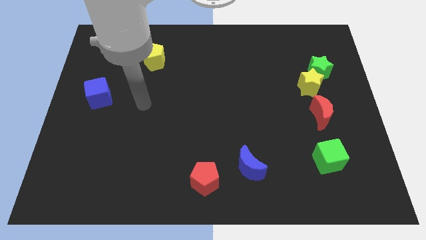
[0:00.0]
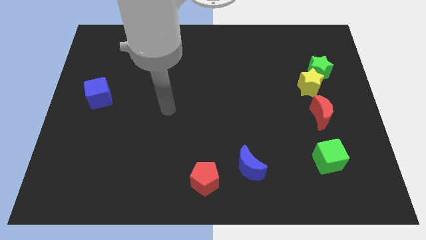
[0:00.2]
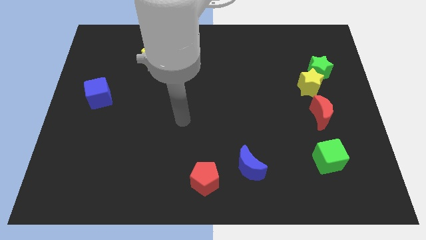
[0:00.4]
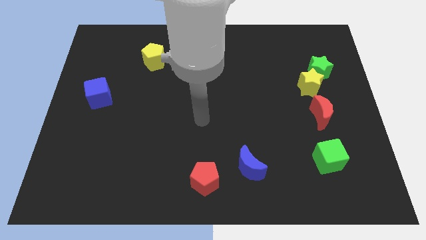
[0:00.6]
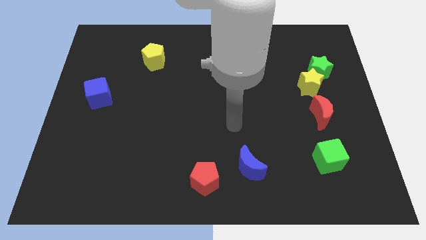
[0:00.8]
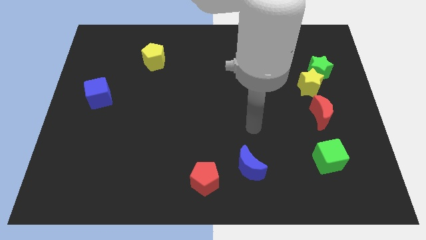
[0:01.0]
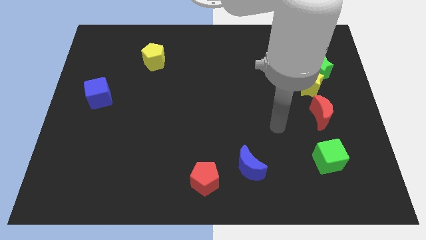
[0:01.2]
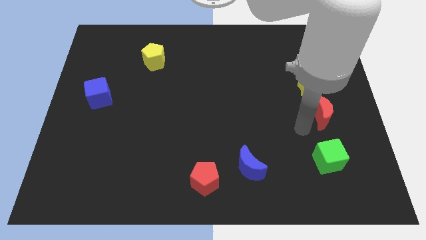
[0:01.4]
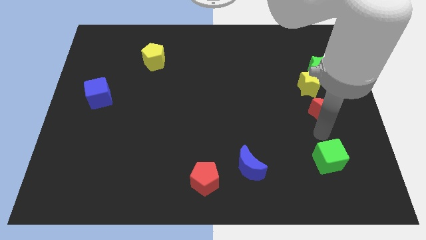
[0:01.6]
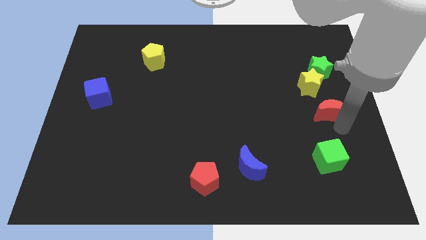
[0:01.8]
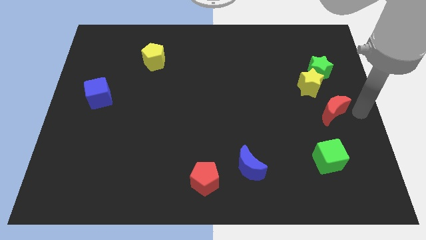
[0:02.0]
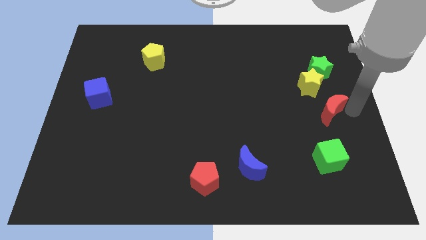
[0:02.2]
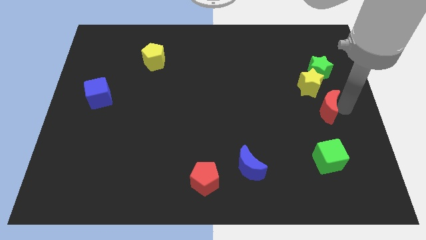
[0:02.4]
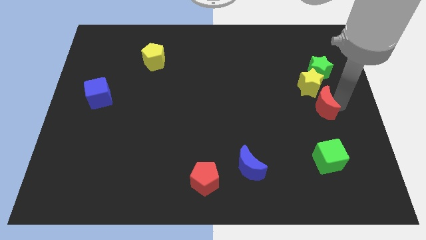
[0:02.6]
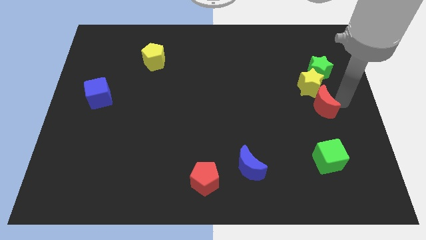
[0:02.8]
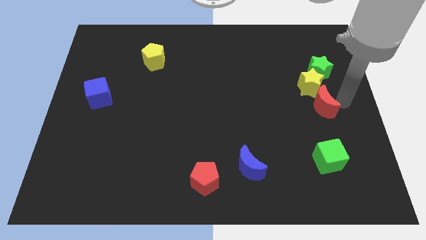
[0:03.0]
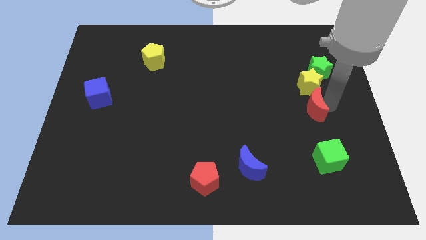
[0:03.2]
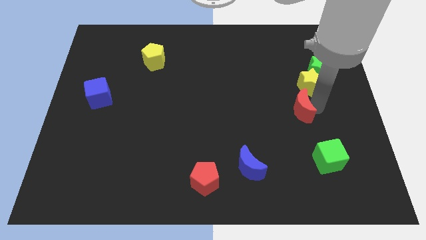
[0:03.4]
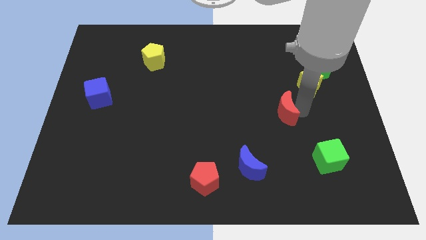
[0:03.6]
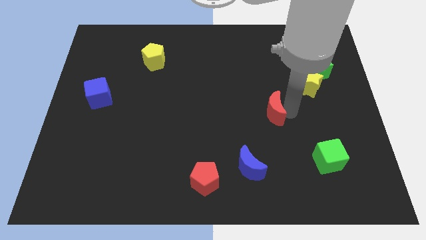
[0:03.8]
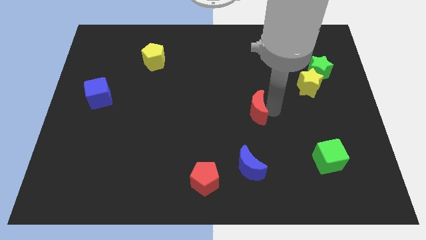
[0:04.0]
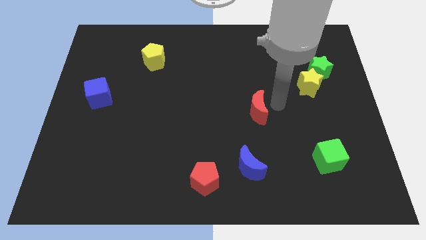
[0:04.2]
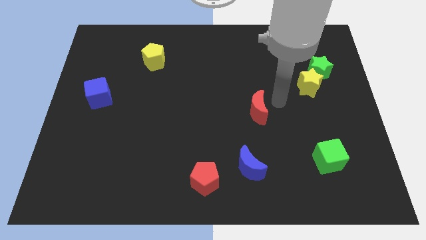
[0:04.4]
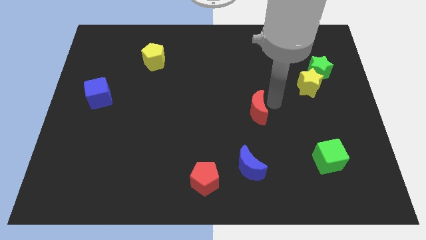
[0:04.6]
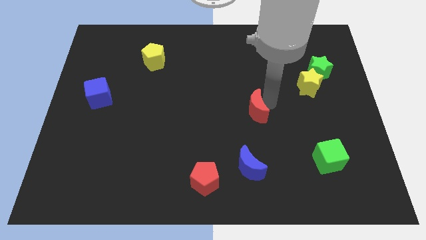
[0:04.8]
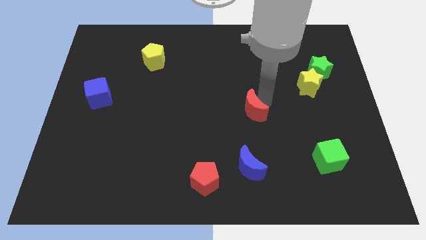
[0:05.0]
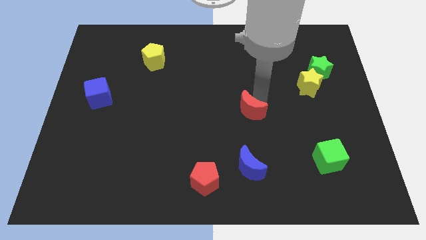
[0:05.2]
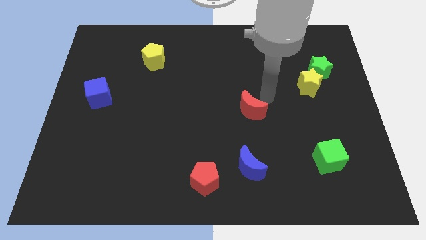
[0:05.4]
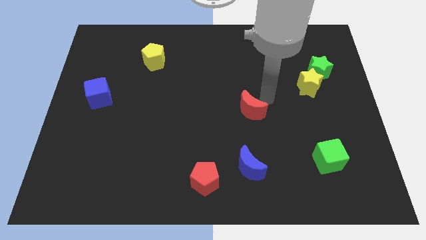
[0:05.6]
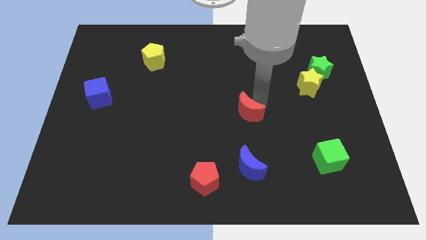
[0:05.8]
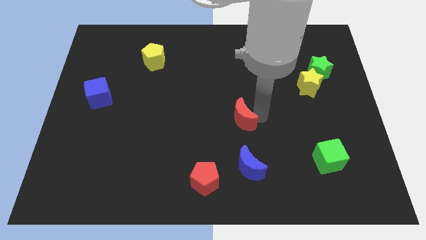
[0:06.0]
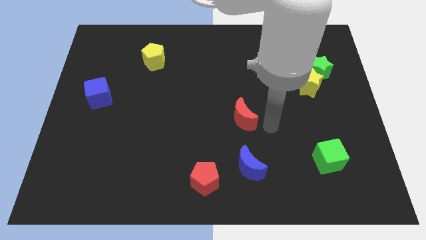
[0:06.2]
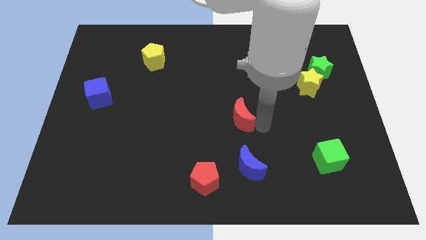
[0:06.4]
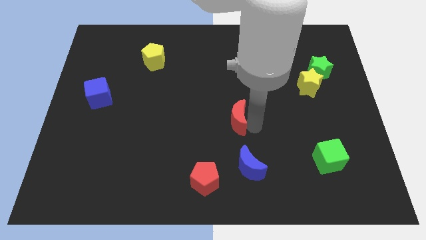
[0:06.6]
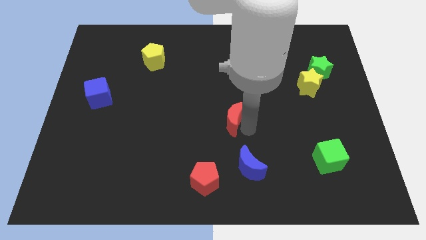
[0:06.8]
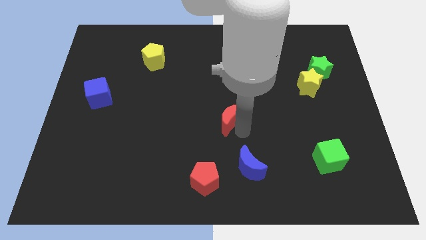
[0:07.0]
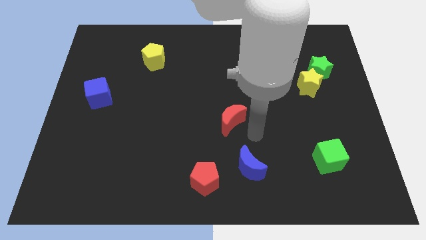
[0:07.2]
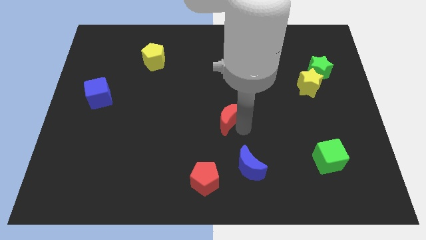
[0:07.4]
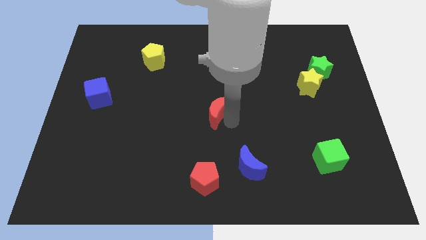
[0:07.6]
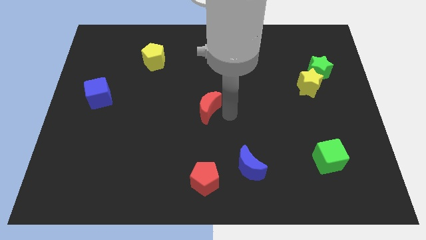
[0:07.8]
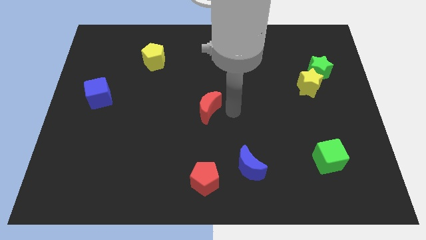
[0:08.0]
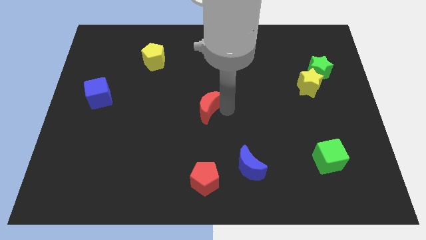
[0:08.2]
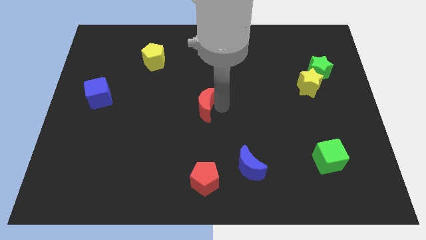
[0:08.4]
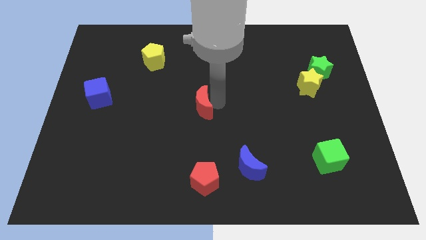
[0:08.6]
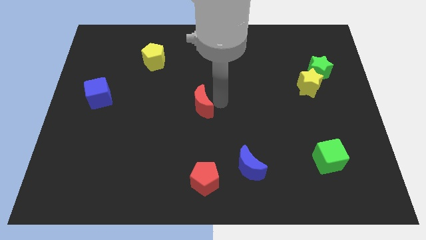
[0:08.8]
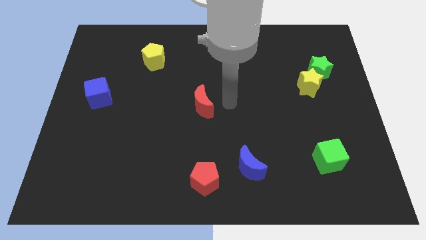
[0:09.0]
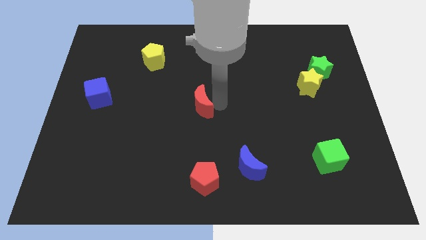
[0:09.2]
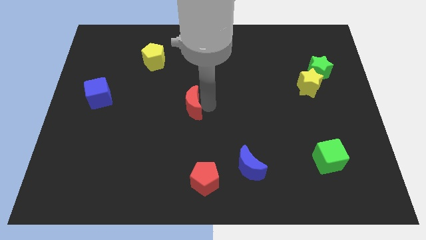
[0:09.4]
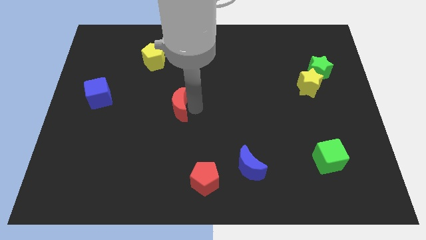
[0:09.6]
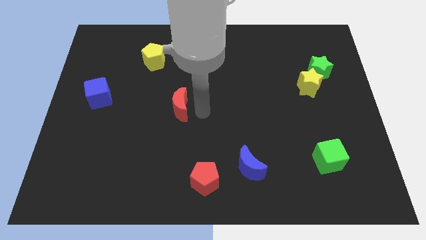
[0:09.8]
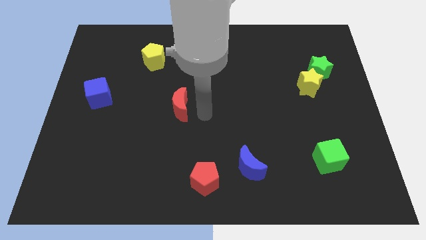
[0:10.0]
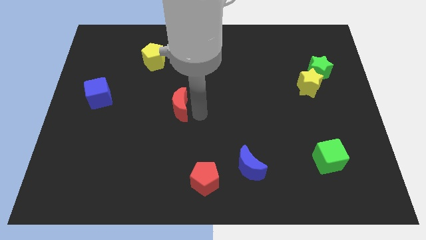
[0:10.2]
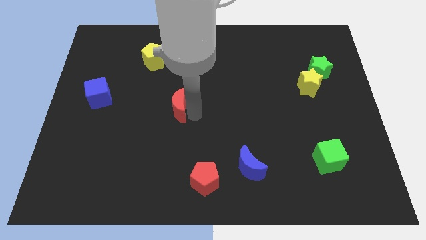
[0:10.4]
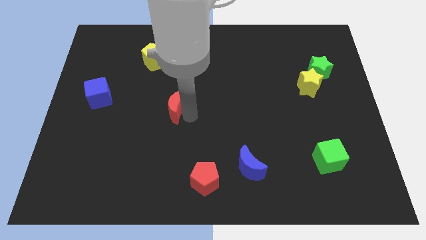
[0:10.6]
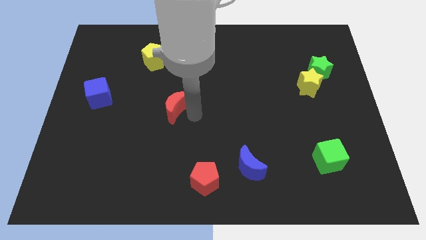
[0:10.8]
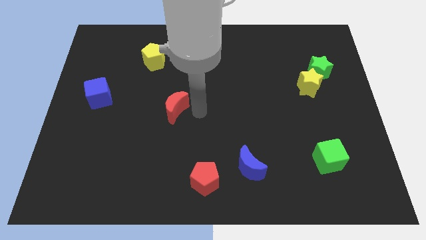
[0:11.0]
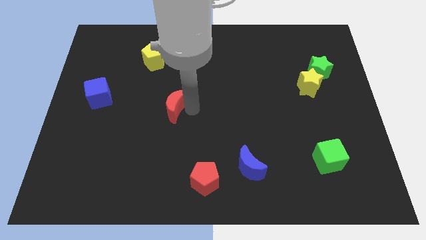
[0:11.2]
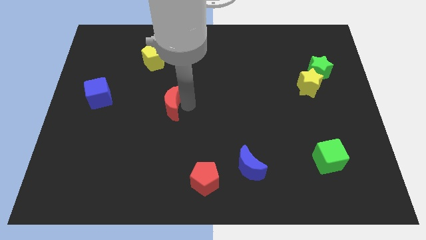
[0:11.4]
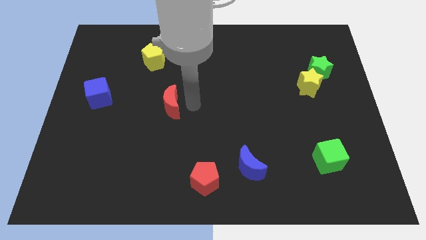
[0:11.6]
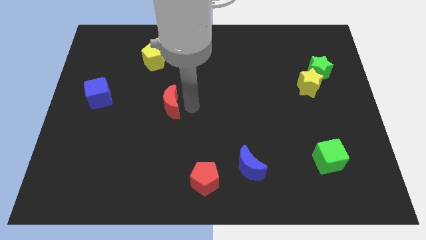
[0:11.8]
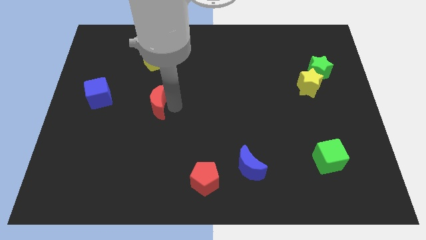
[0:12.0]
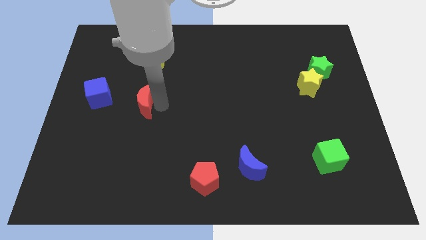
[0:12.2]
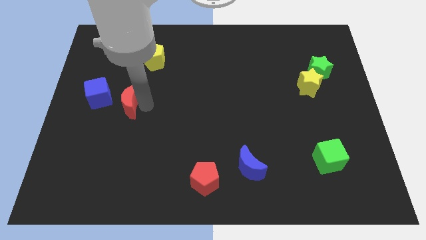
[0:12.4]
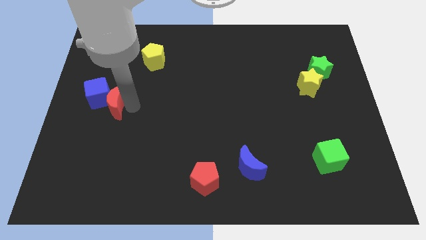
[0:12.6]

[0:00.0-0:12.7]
push the red moon towards the blue cube

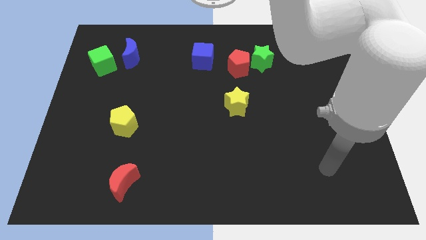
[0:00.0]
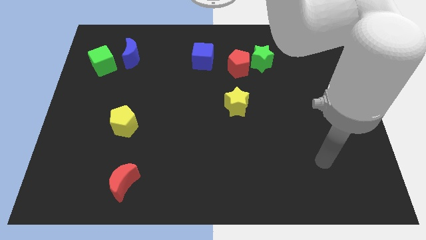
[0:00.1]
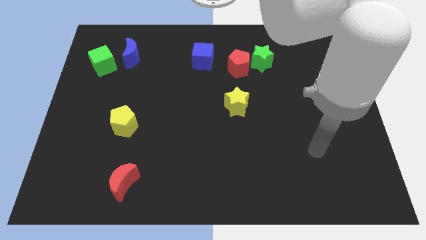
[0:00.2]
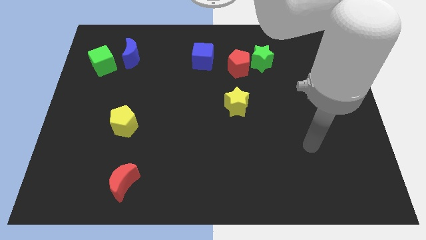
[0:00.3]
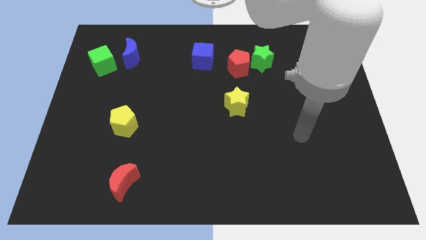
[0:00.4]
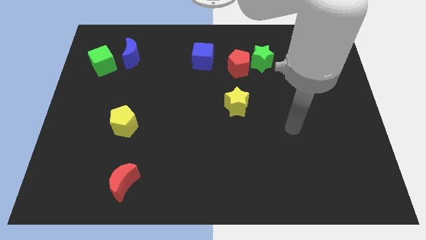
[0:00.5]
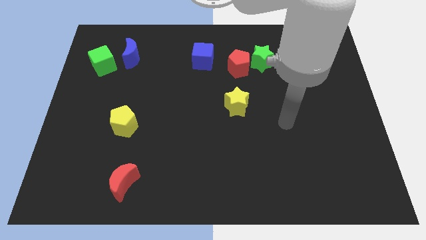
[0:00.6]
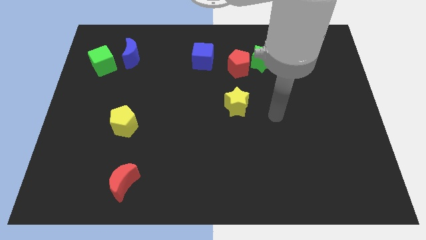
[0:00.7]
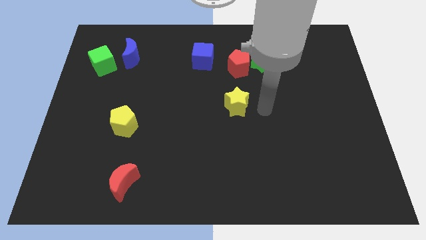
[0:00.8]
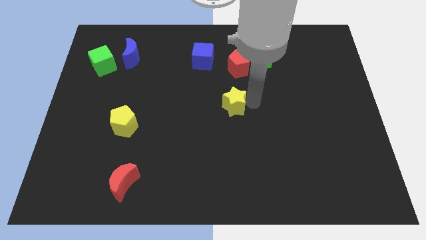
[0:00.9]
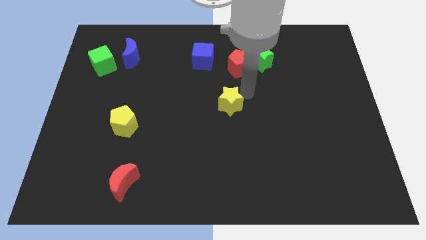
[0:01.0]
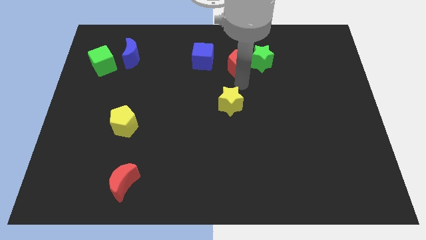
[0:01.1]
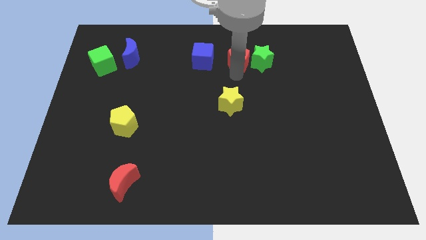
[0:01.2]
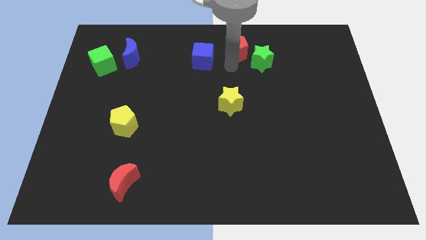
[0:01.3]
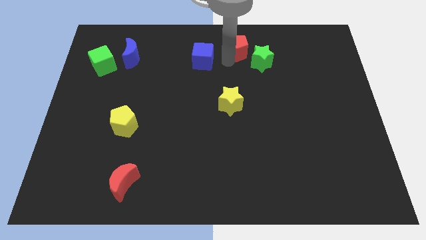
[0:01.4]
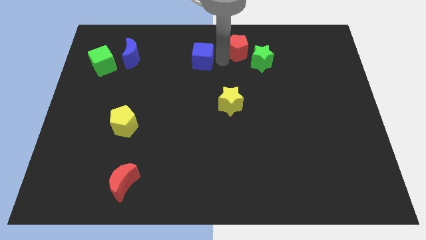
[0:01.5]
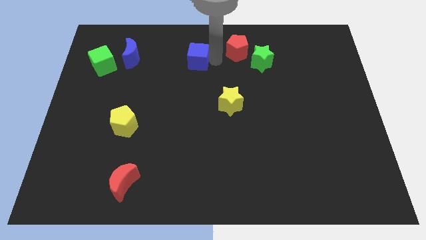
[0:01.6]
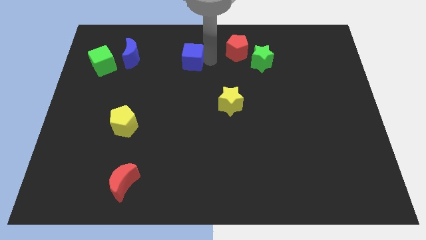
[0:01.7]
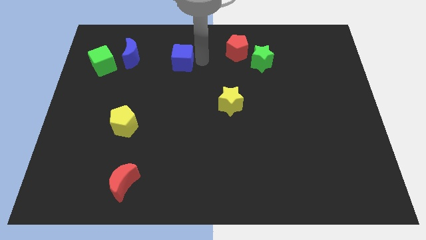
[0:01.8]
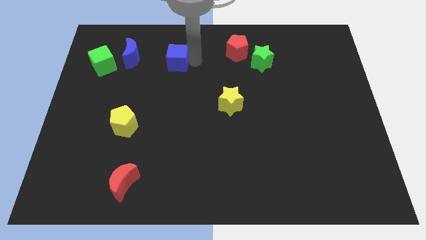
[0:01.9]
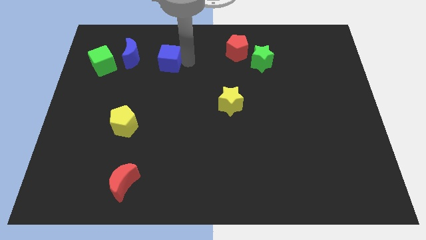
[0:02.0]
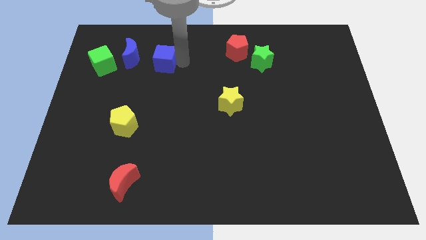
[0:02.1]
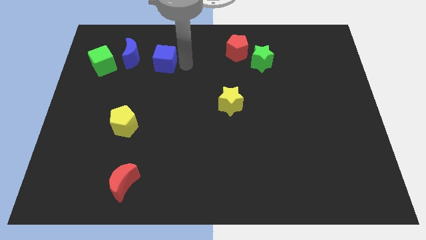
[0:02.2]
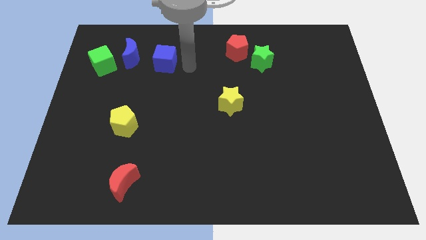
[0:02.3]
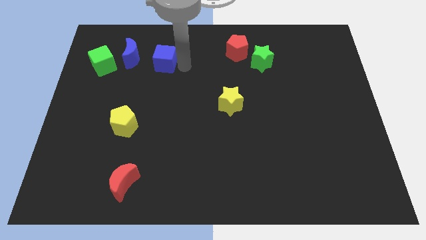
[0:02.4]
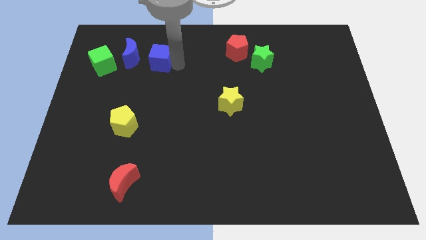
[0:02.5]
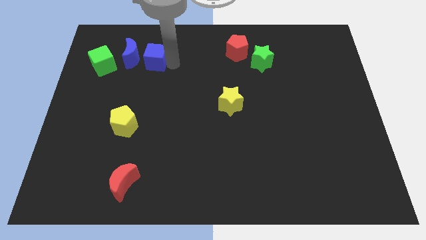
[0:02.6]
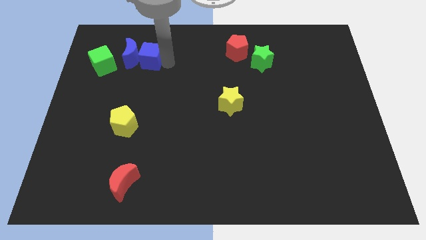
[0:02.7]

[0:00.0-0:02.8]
push the blue cube to the blue moon
